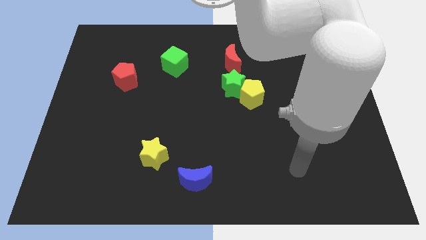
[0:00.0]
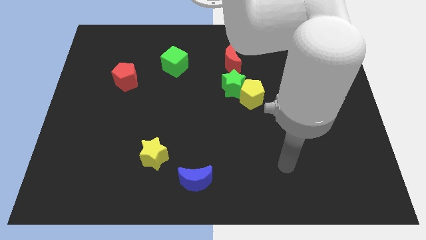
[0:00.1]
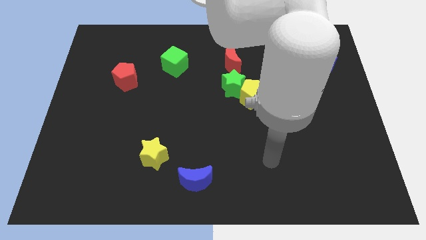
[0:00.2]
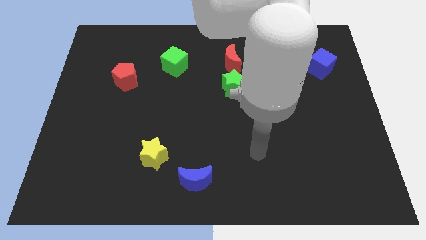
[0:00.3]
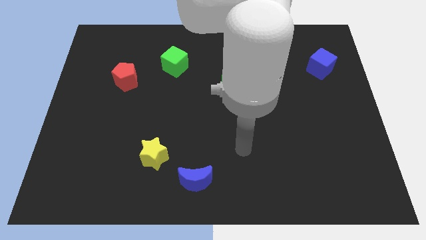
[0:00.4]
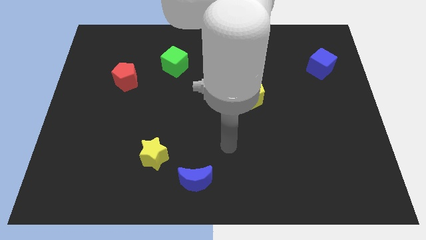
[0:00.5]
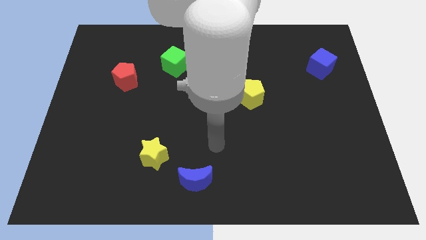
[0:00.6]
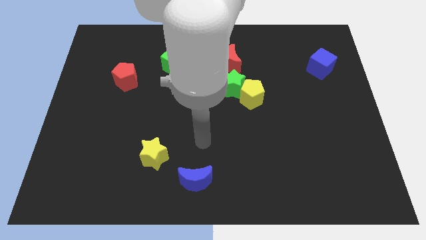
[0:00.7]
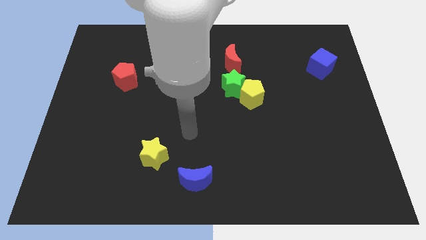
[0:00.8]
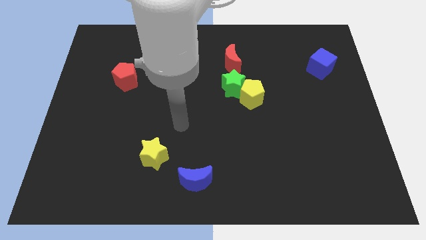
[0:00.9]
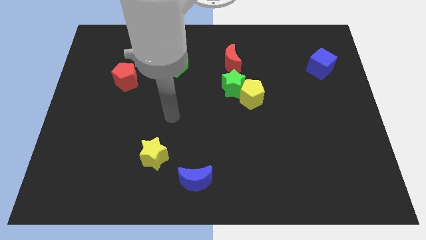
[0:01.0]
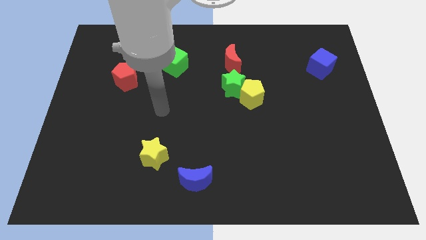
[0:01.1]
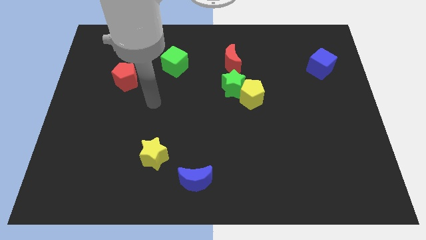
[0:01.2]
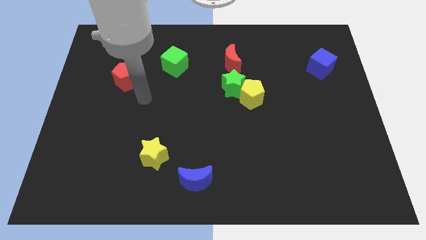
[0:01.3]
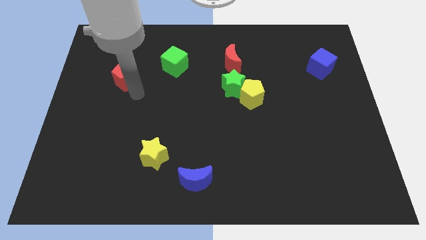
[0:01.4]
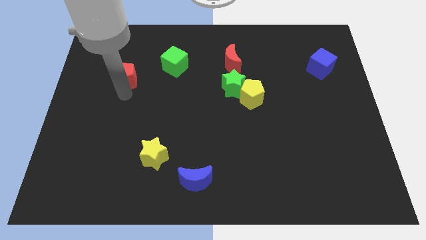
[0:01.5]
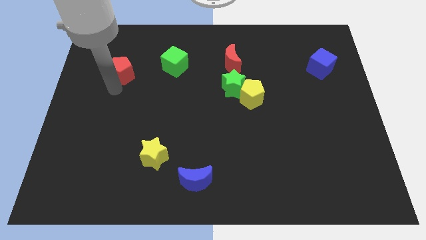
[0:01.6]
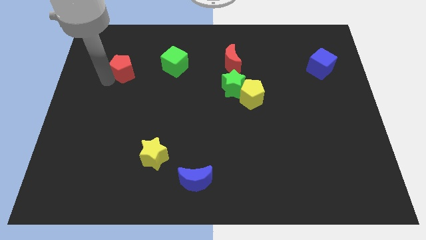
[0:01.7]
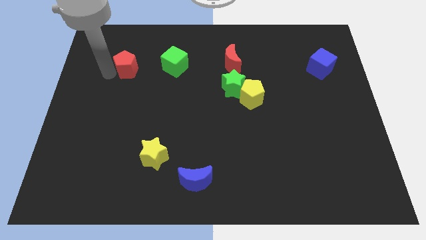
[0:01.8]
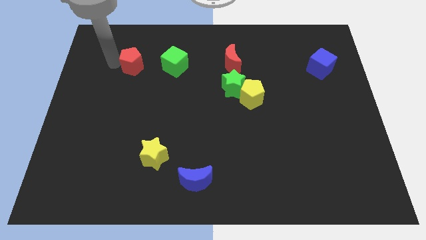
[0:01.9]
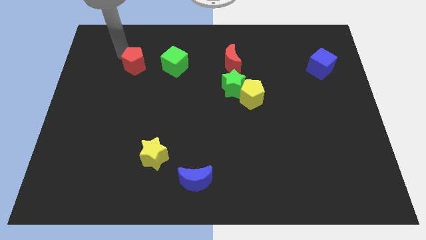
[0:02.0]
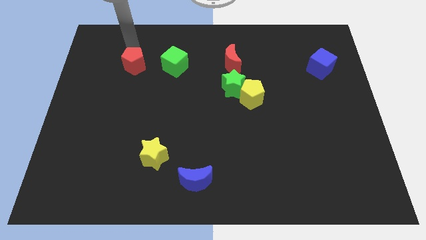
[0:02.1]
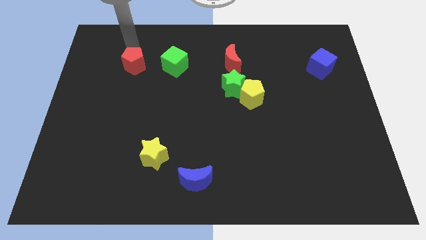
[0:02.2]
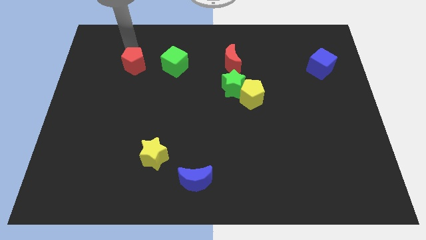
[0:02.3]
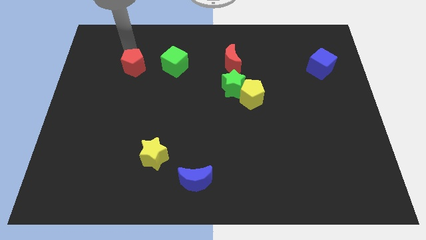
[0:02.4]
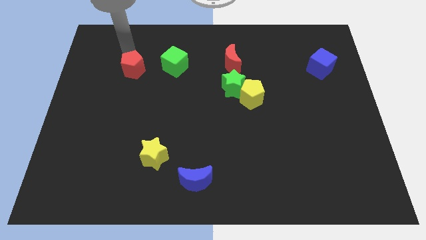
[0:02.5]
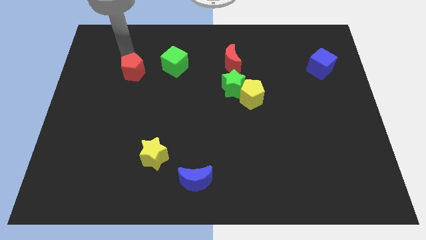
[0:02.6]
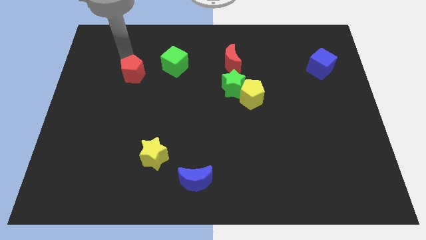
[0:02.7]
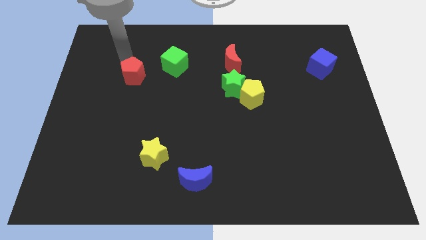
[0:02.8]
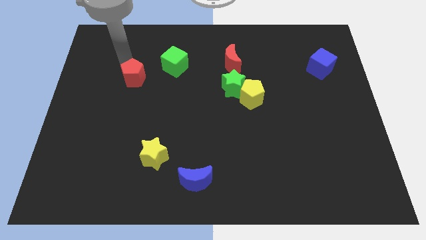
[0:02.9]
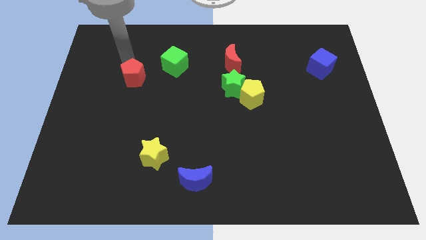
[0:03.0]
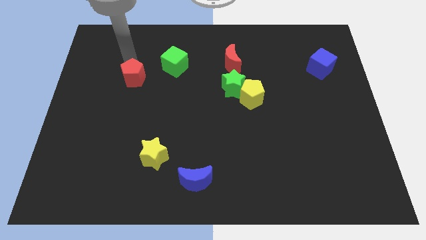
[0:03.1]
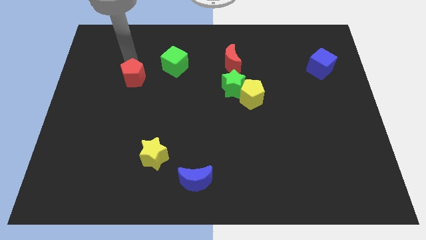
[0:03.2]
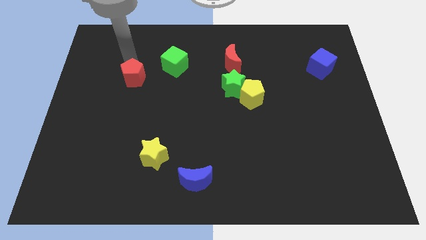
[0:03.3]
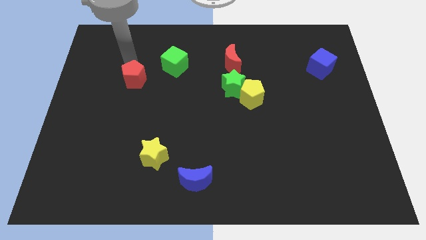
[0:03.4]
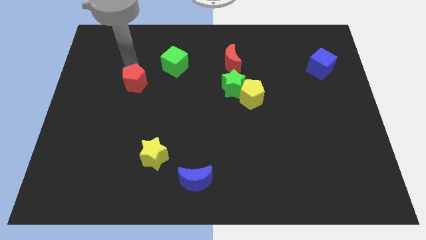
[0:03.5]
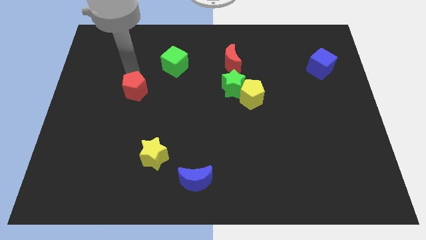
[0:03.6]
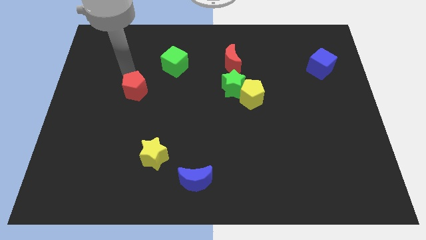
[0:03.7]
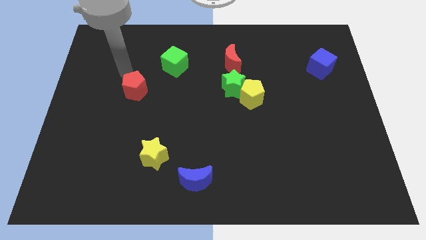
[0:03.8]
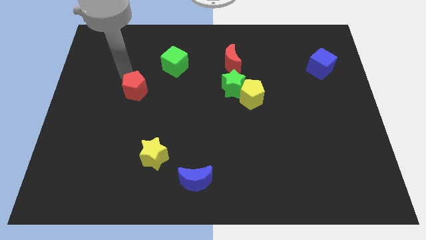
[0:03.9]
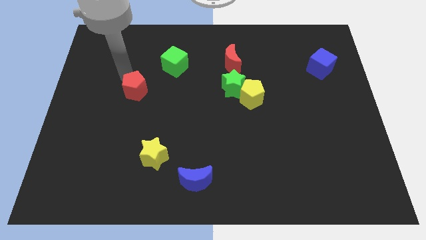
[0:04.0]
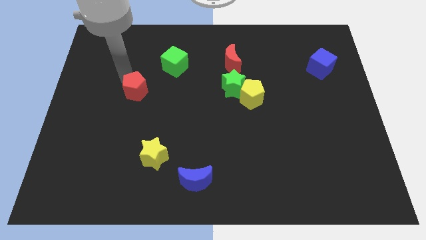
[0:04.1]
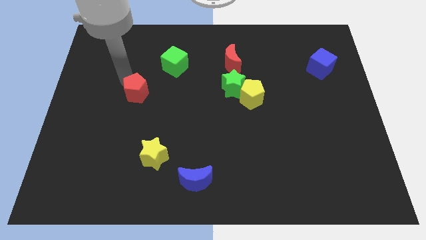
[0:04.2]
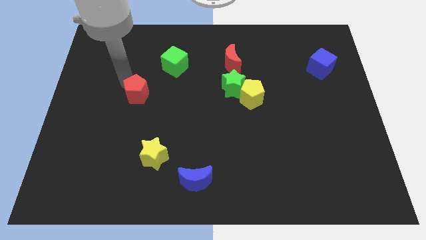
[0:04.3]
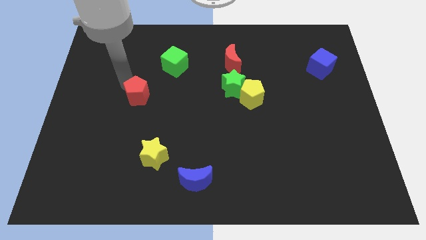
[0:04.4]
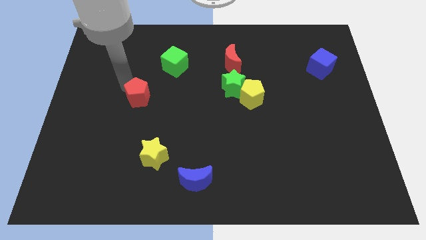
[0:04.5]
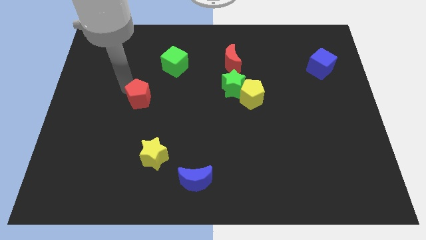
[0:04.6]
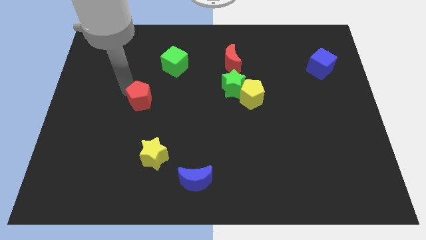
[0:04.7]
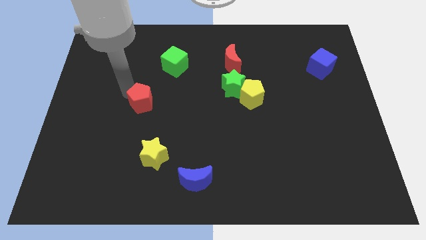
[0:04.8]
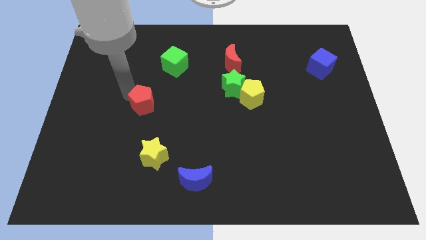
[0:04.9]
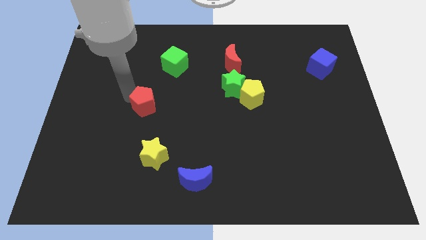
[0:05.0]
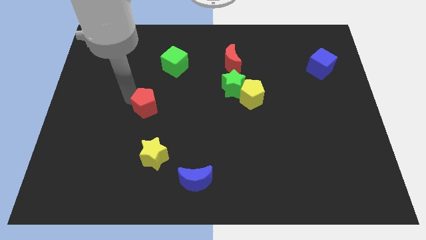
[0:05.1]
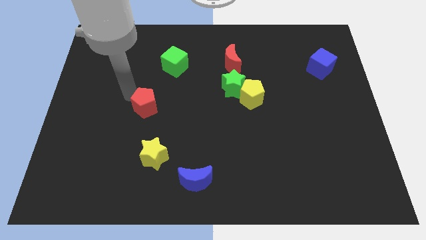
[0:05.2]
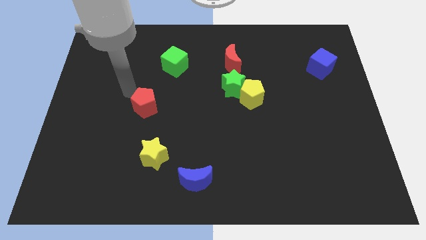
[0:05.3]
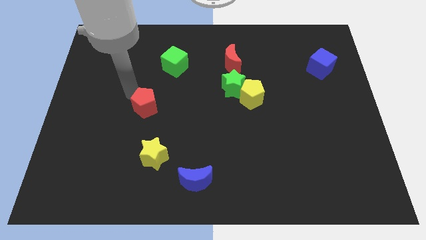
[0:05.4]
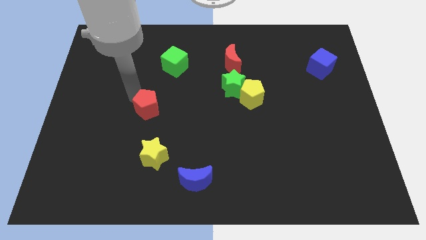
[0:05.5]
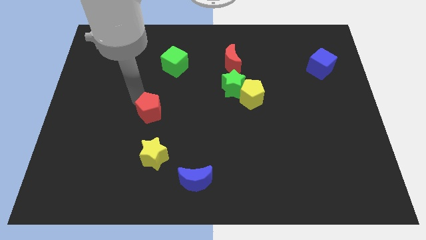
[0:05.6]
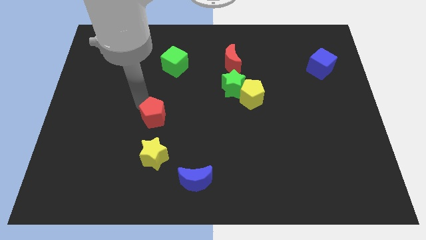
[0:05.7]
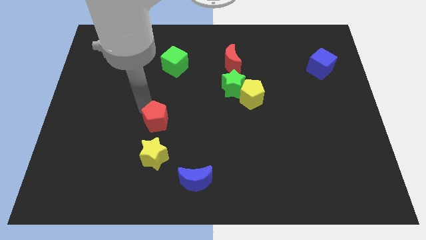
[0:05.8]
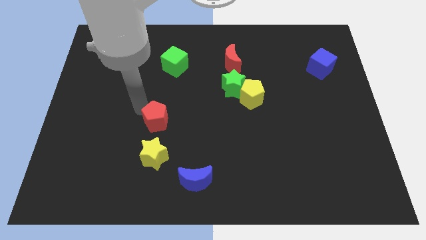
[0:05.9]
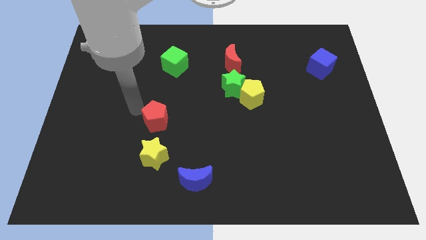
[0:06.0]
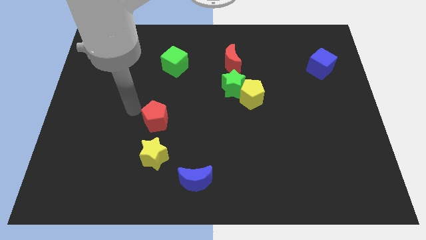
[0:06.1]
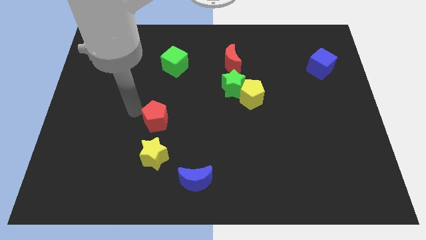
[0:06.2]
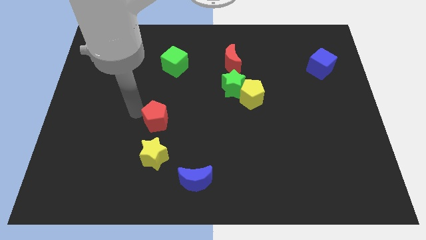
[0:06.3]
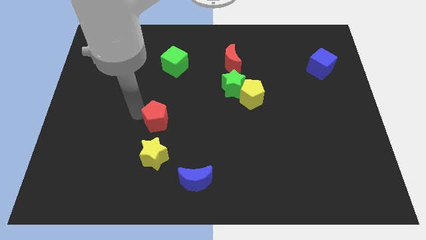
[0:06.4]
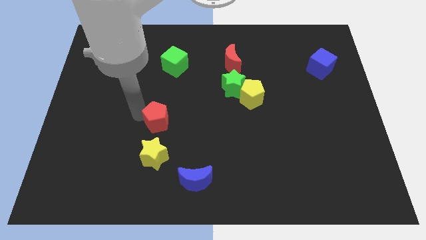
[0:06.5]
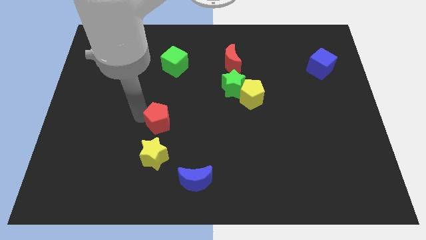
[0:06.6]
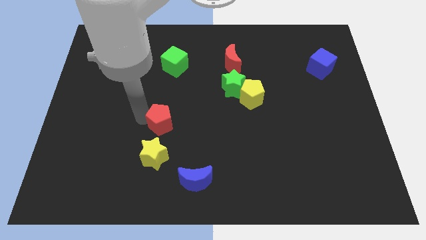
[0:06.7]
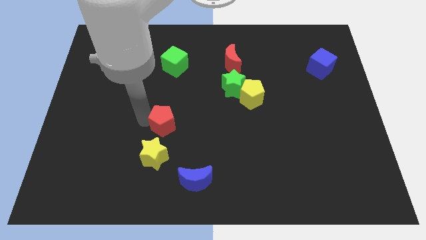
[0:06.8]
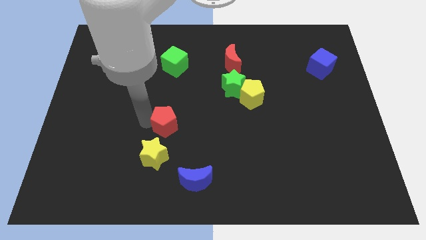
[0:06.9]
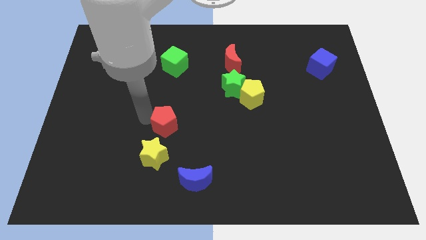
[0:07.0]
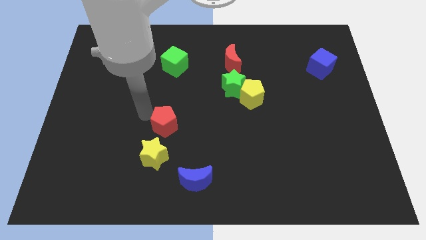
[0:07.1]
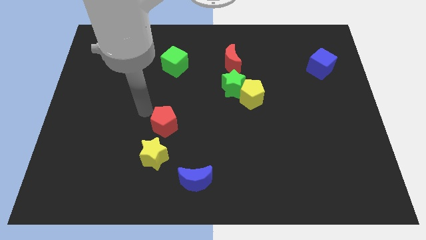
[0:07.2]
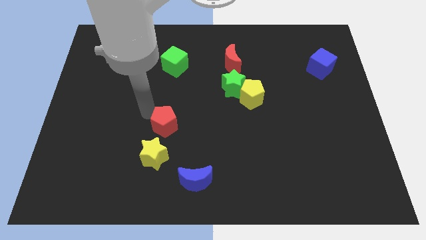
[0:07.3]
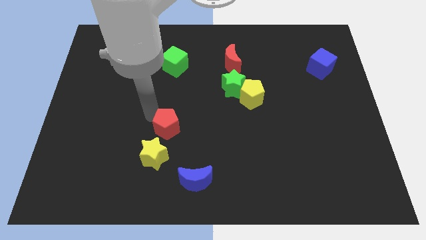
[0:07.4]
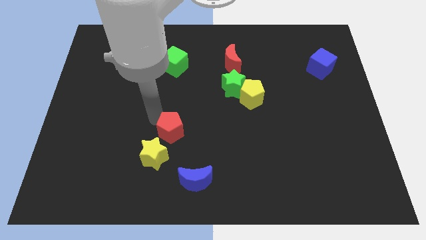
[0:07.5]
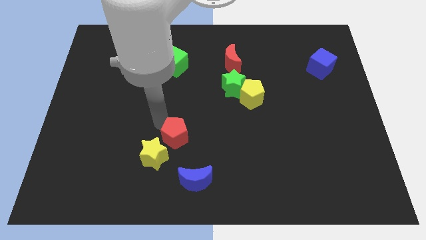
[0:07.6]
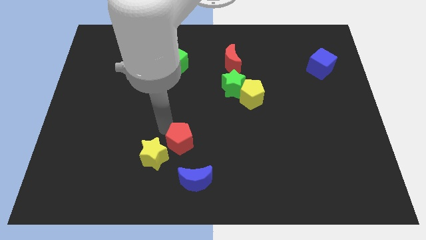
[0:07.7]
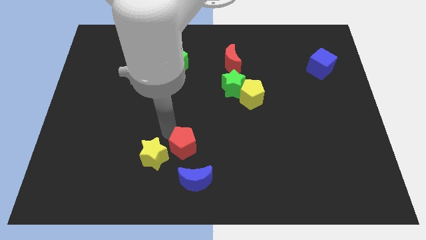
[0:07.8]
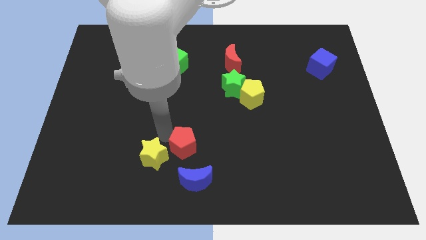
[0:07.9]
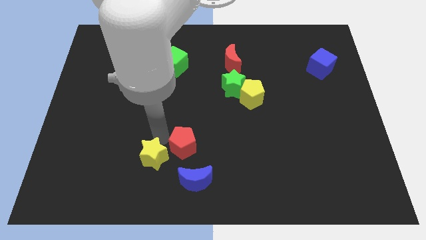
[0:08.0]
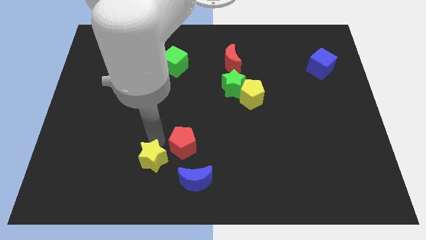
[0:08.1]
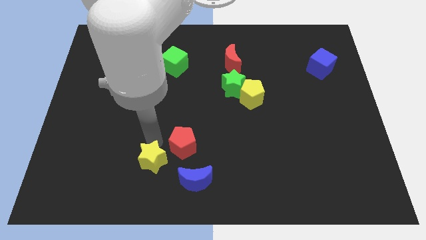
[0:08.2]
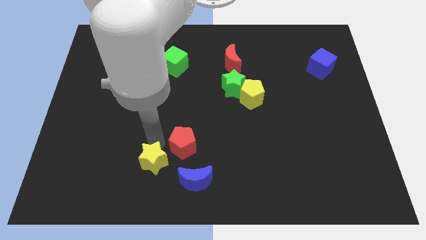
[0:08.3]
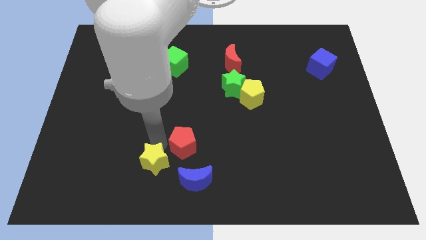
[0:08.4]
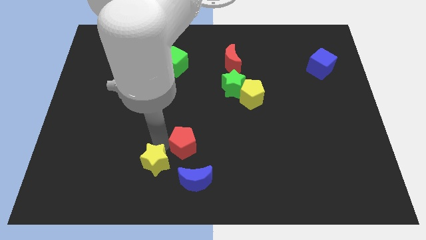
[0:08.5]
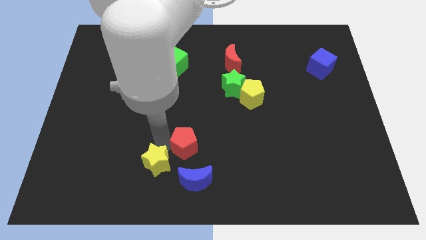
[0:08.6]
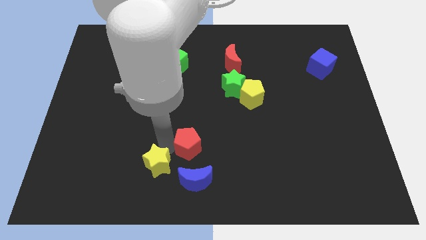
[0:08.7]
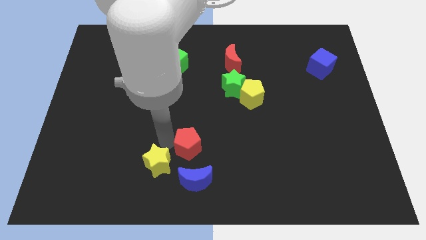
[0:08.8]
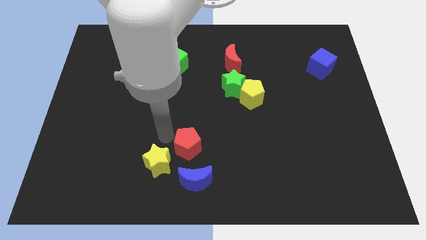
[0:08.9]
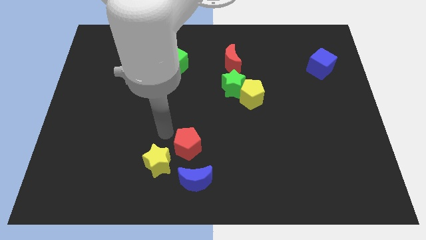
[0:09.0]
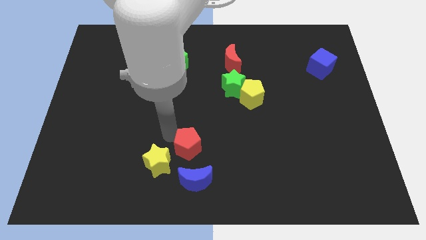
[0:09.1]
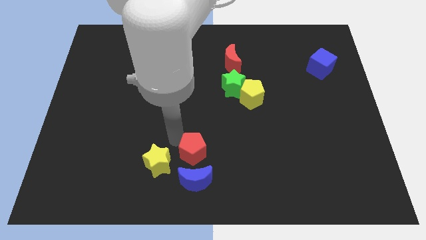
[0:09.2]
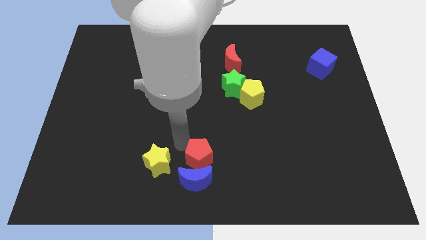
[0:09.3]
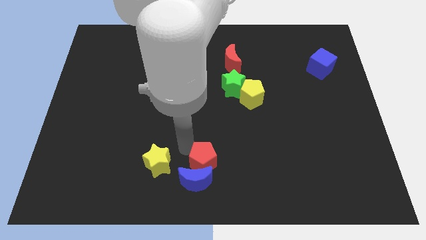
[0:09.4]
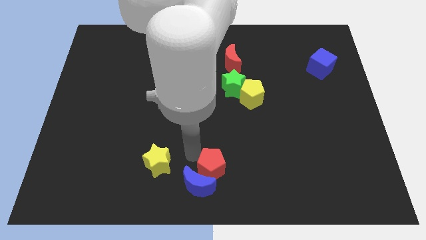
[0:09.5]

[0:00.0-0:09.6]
slide the red pentagon just right of the blue moon
